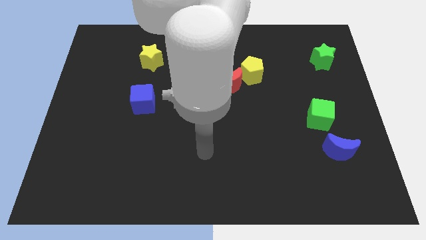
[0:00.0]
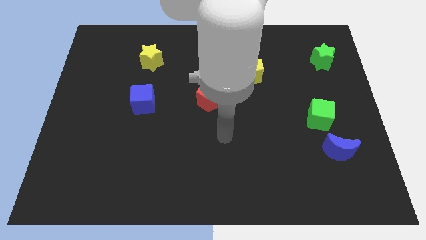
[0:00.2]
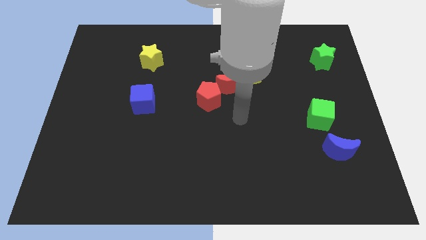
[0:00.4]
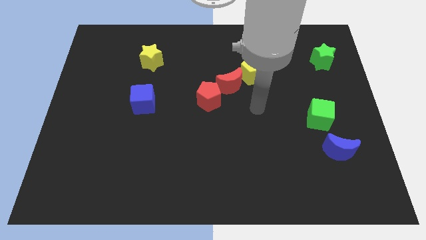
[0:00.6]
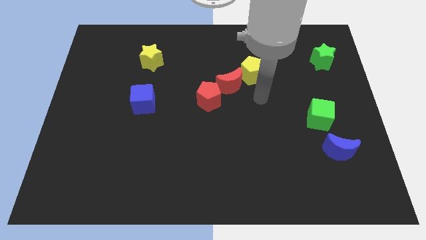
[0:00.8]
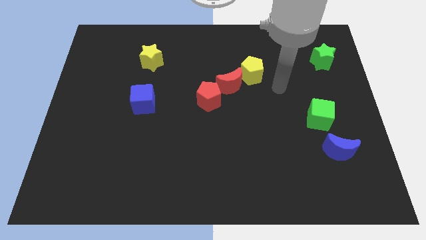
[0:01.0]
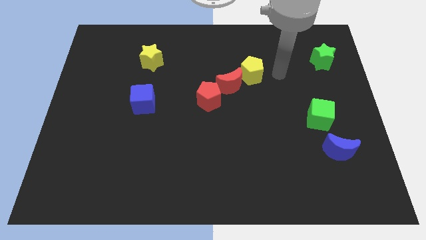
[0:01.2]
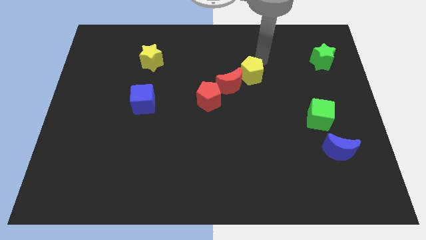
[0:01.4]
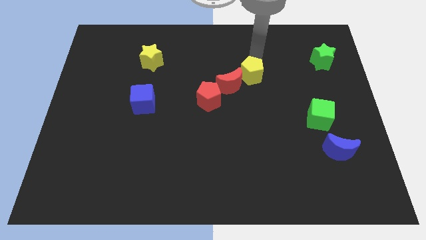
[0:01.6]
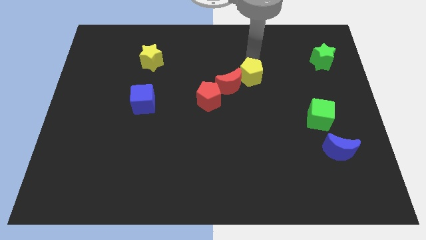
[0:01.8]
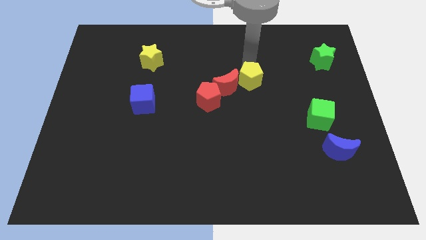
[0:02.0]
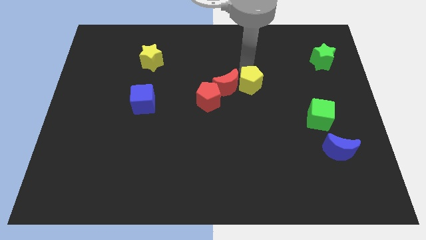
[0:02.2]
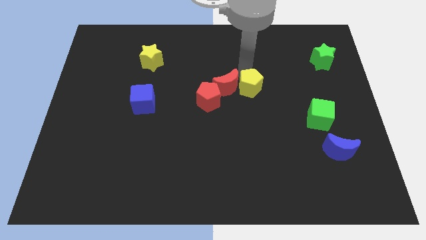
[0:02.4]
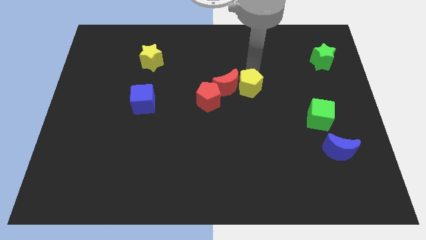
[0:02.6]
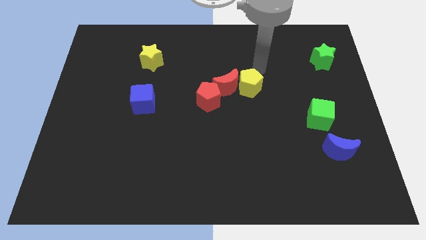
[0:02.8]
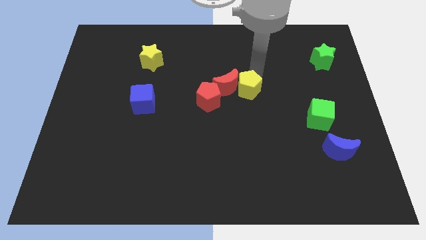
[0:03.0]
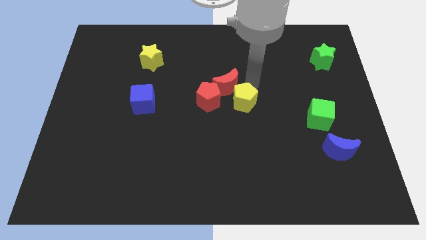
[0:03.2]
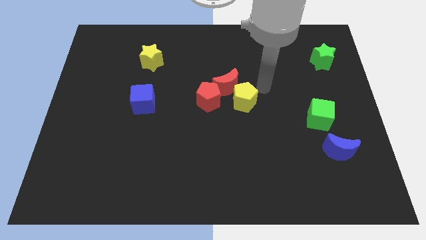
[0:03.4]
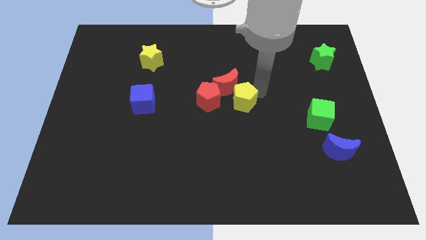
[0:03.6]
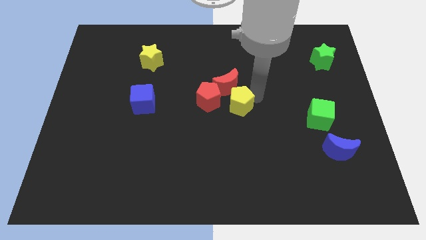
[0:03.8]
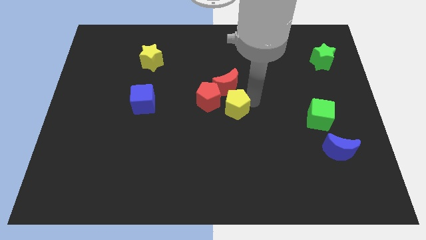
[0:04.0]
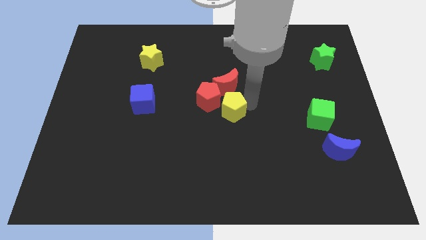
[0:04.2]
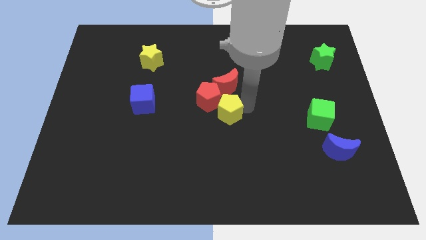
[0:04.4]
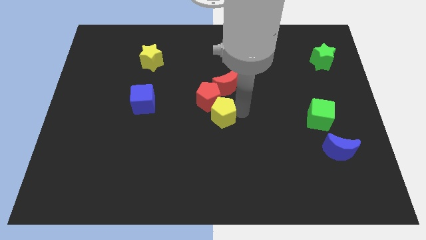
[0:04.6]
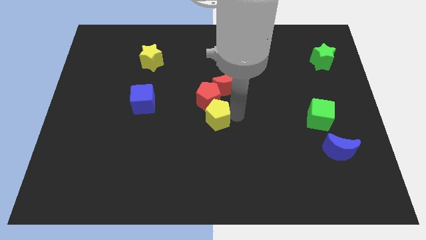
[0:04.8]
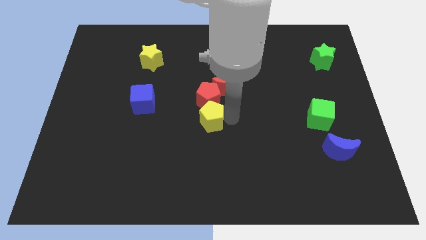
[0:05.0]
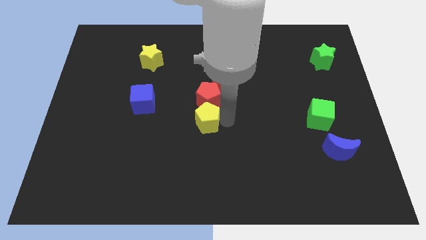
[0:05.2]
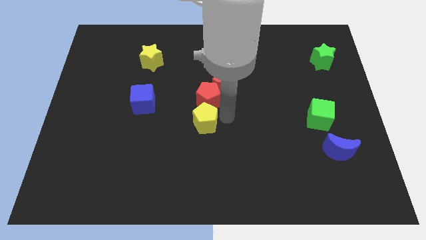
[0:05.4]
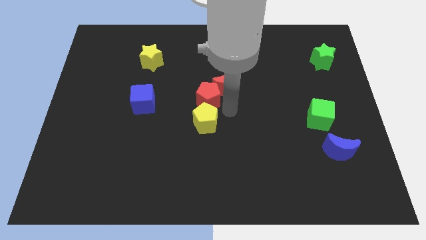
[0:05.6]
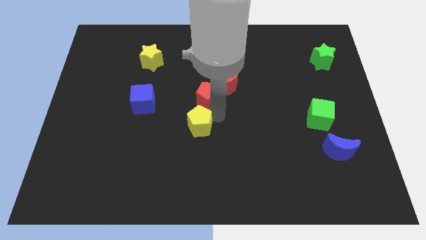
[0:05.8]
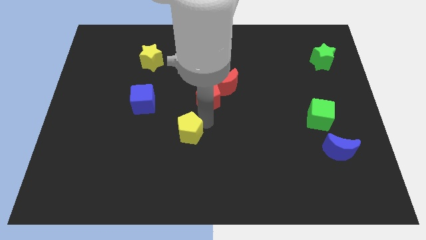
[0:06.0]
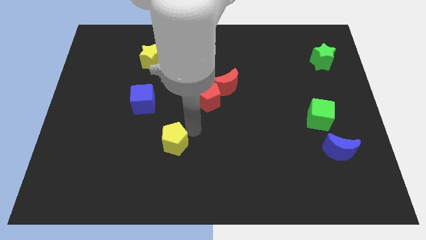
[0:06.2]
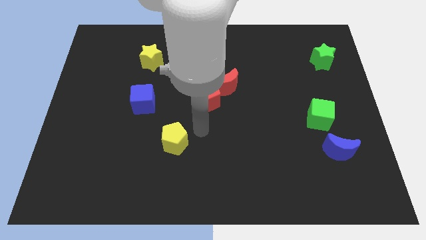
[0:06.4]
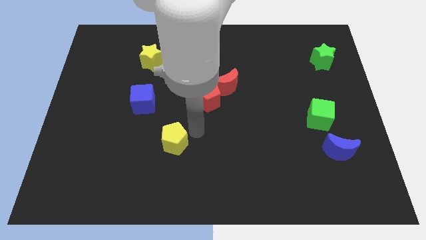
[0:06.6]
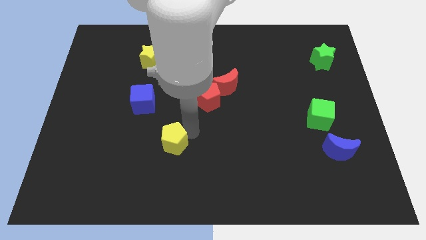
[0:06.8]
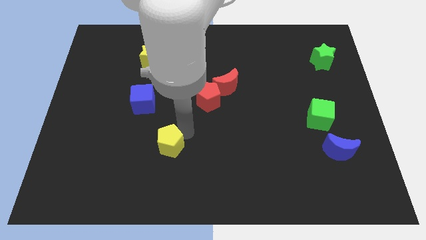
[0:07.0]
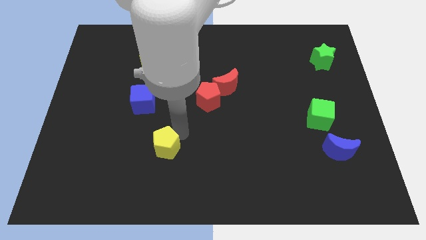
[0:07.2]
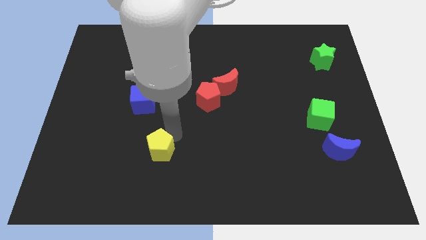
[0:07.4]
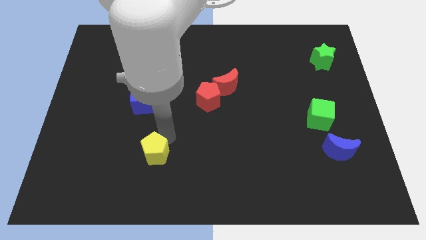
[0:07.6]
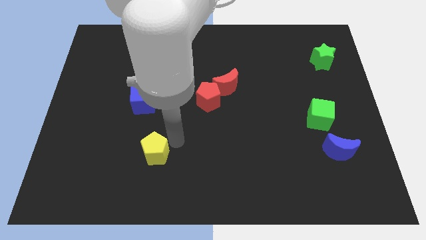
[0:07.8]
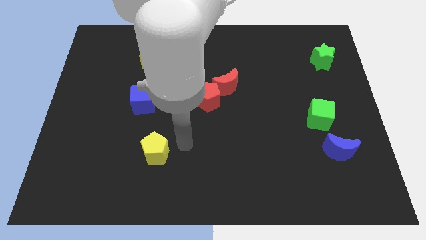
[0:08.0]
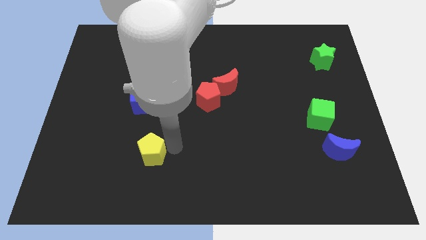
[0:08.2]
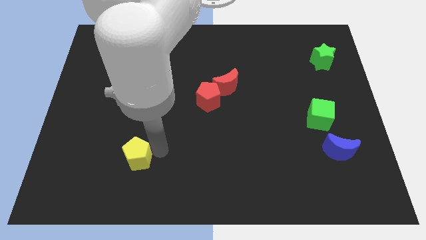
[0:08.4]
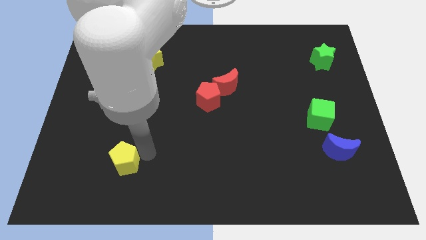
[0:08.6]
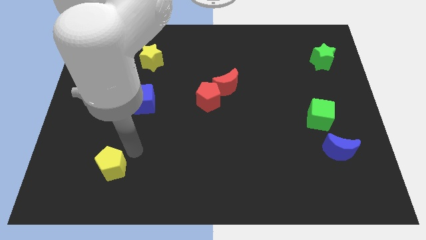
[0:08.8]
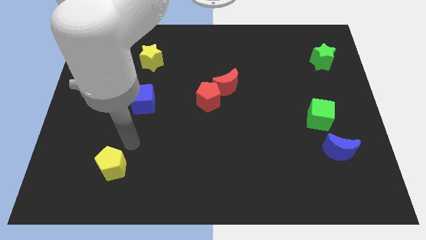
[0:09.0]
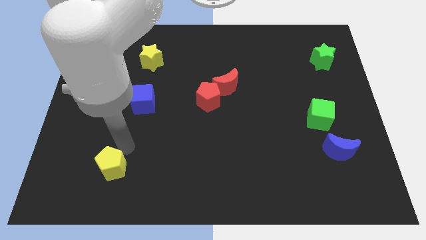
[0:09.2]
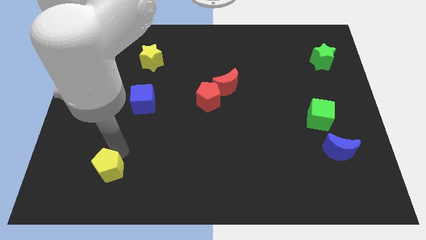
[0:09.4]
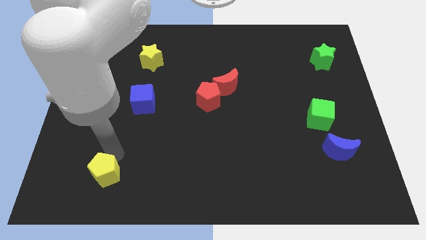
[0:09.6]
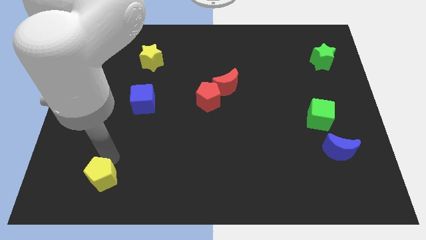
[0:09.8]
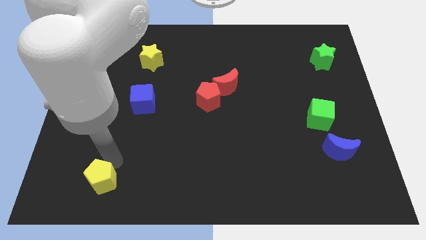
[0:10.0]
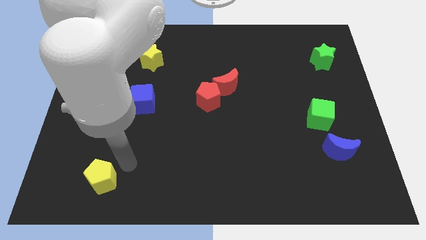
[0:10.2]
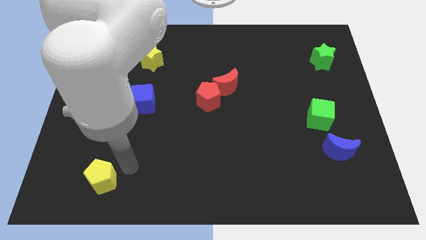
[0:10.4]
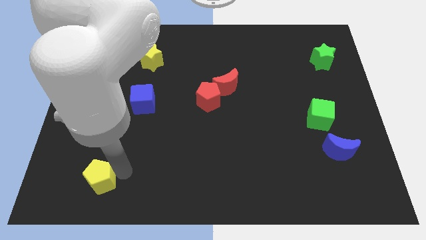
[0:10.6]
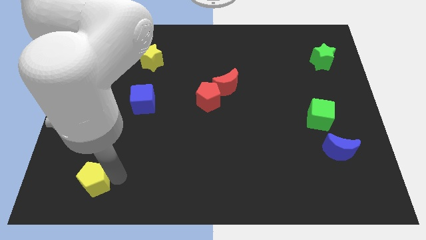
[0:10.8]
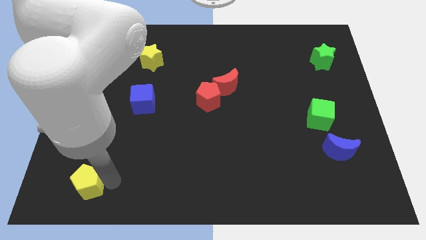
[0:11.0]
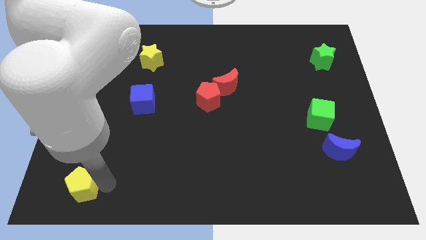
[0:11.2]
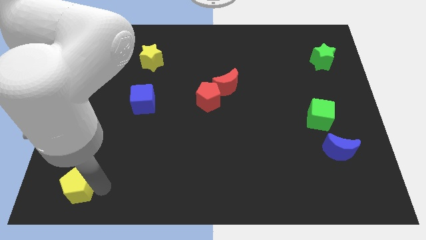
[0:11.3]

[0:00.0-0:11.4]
move the yellow pentagon to the bottom left of the board
